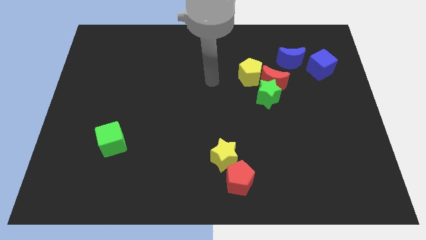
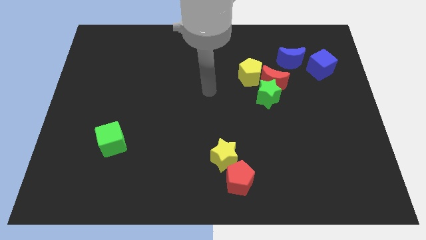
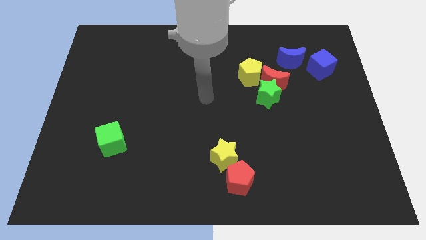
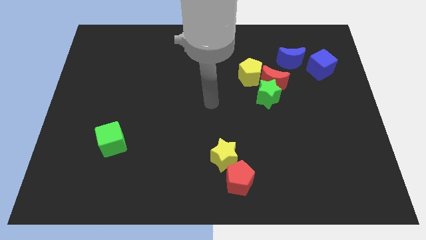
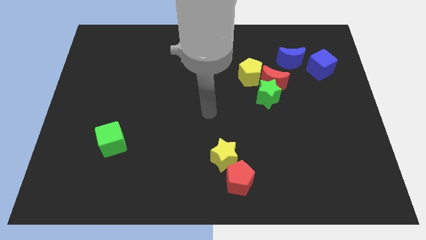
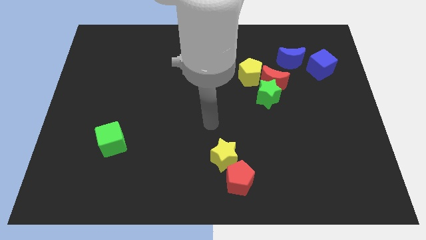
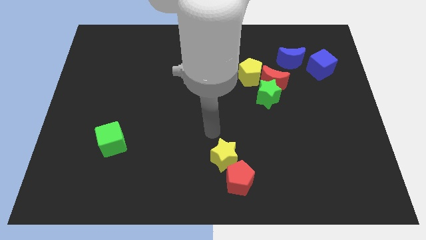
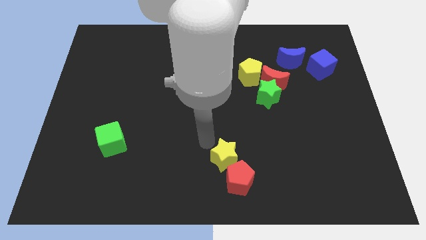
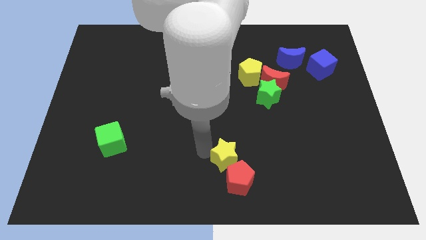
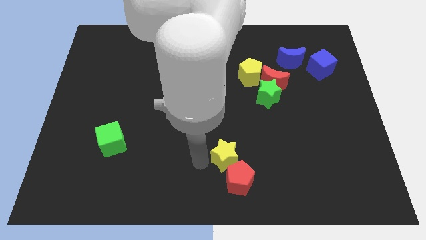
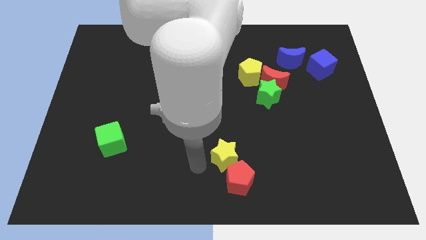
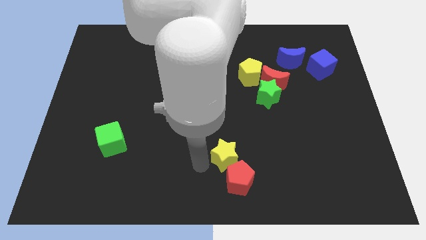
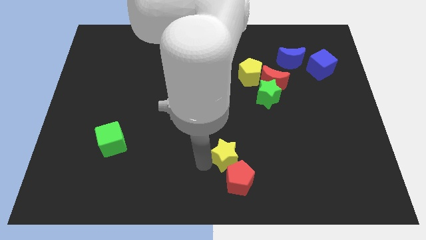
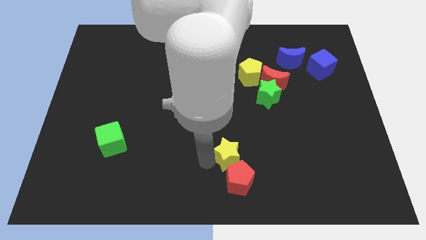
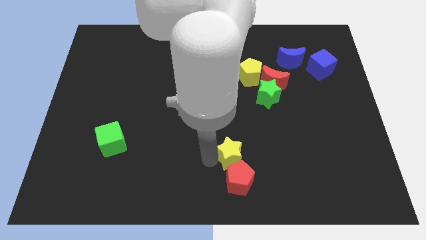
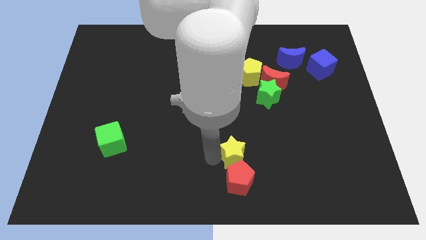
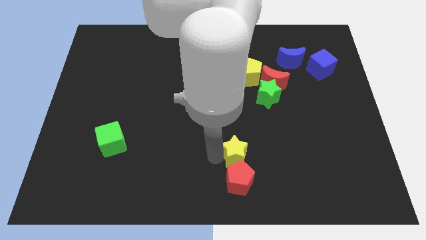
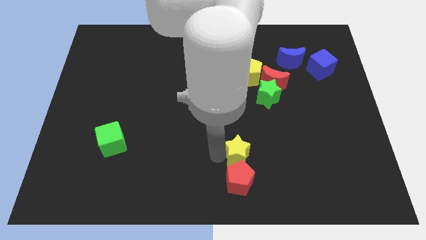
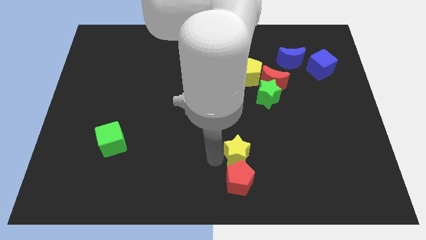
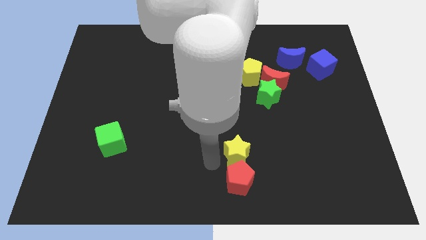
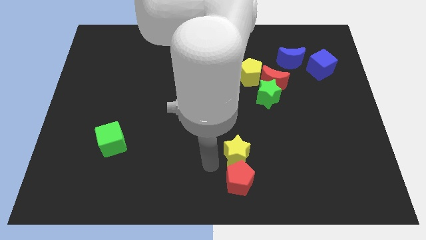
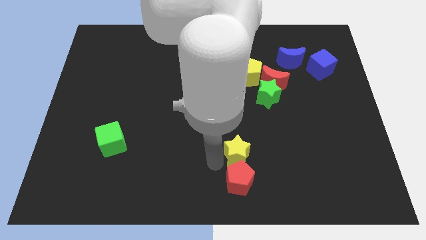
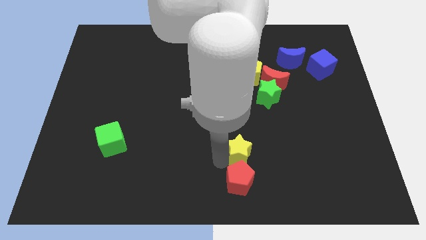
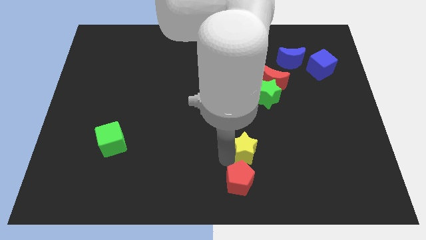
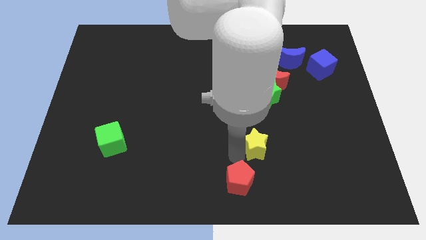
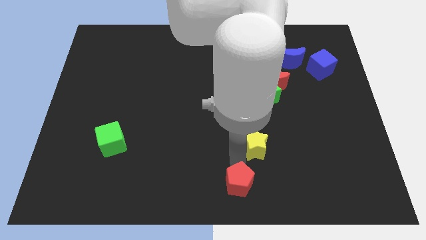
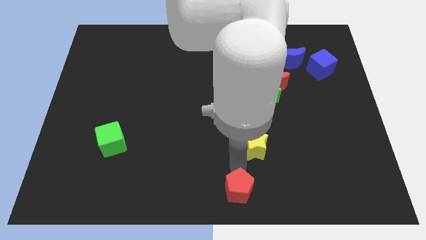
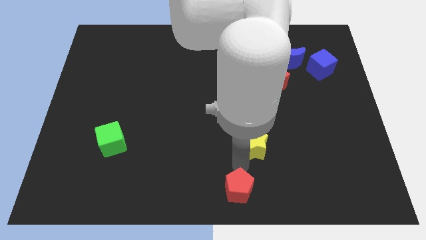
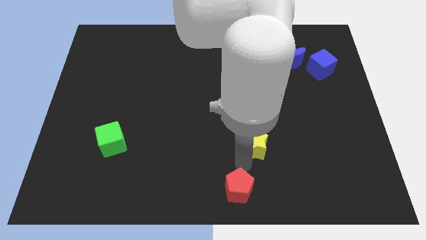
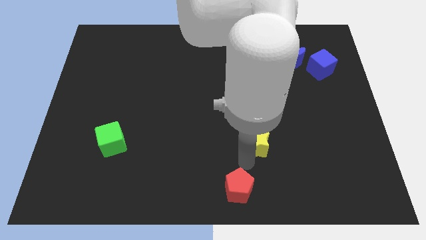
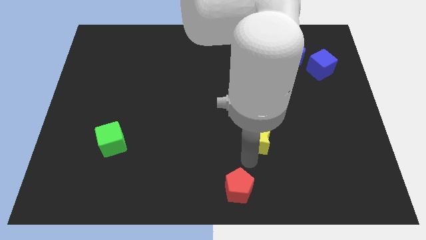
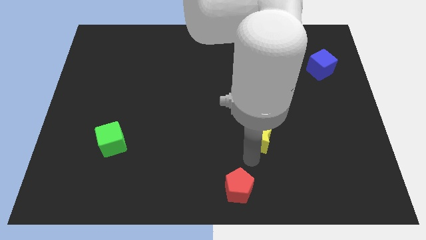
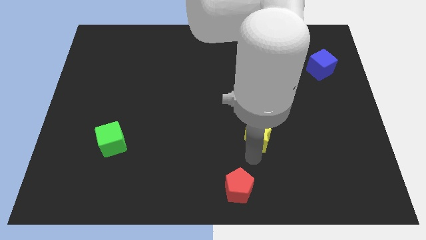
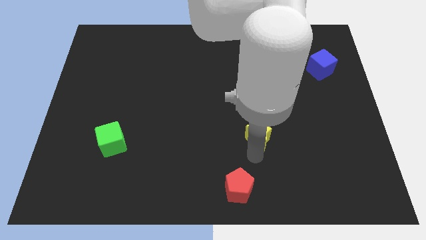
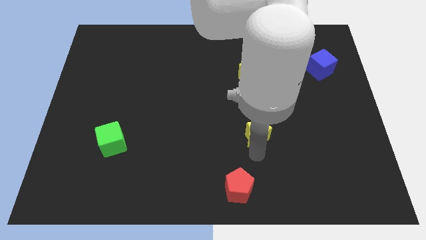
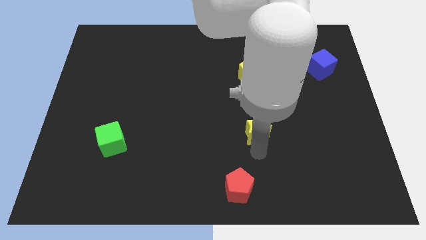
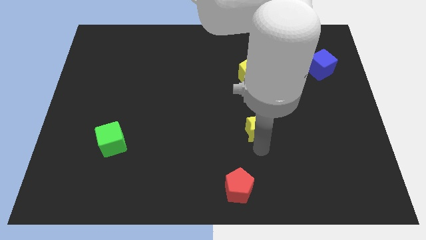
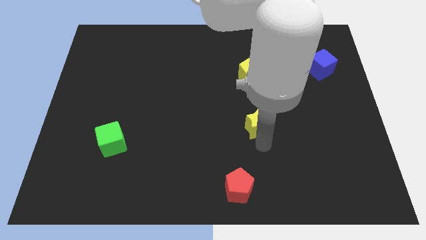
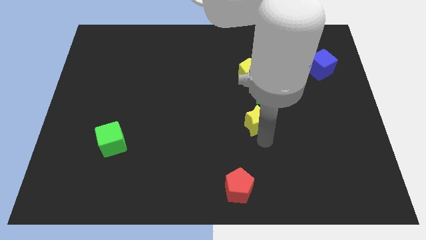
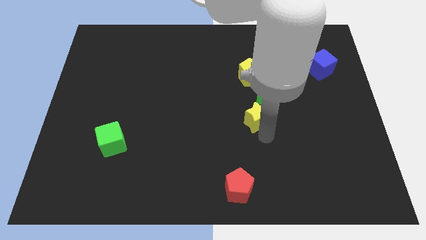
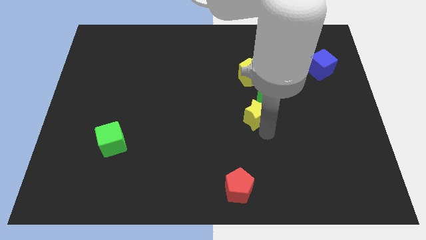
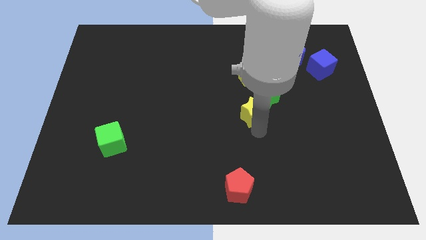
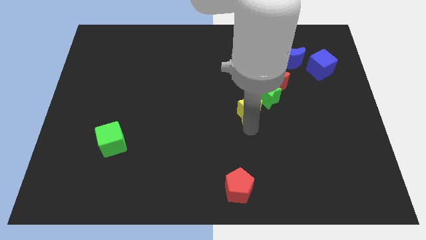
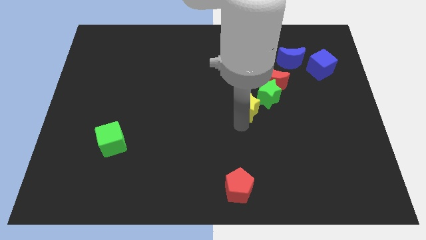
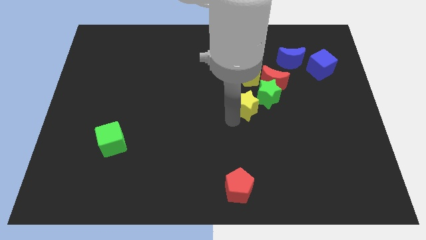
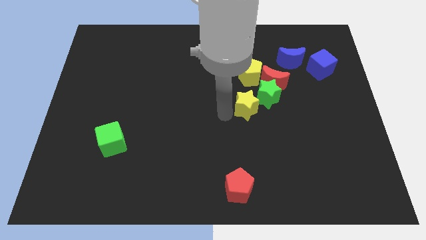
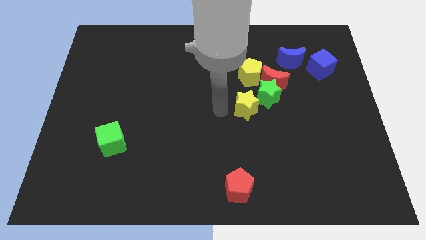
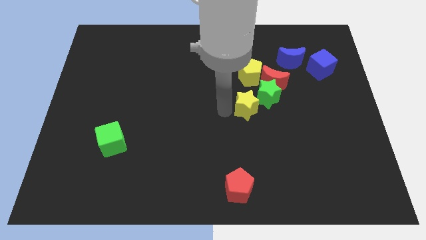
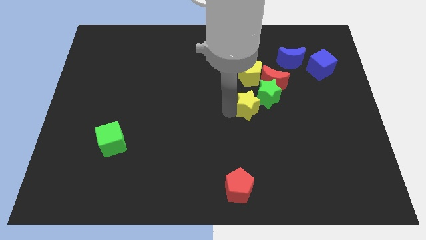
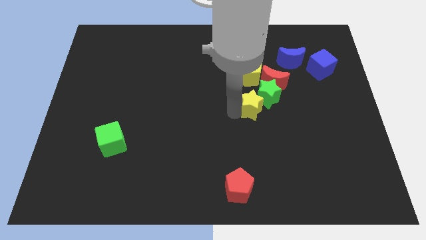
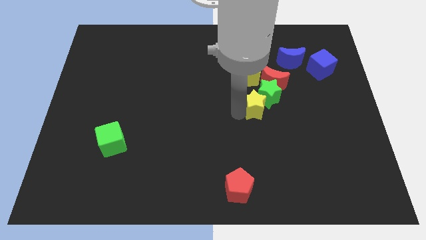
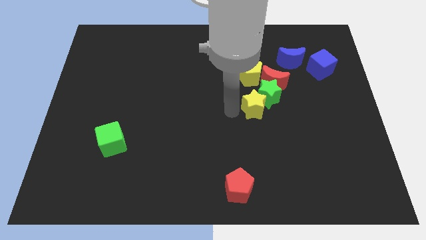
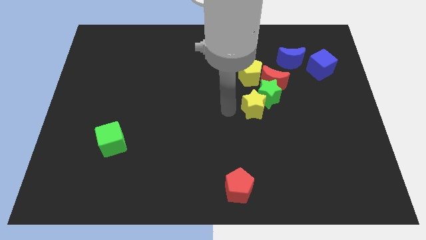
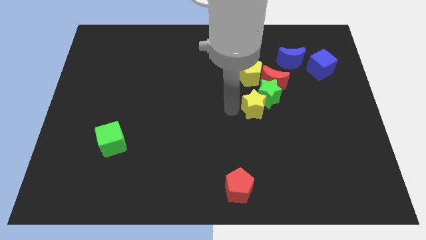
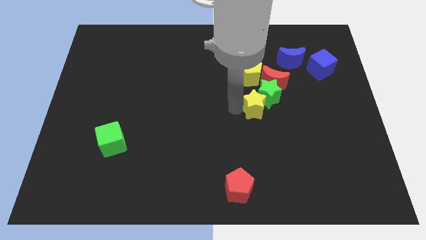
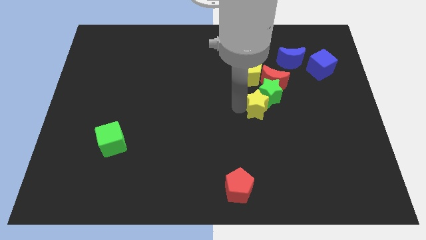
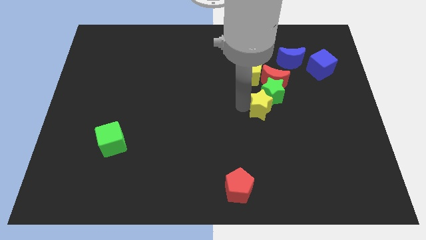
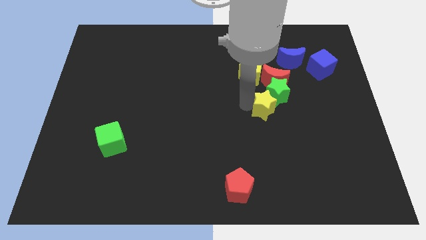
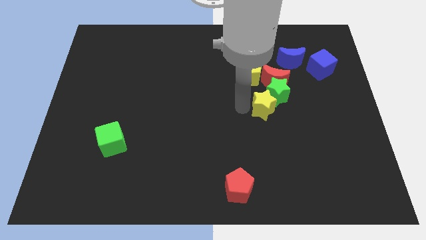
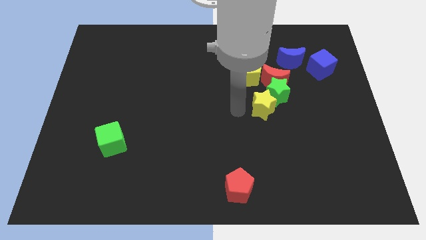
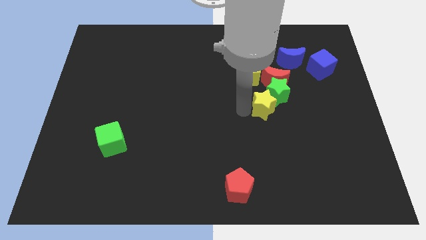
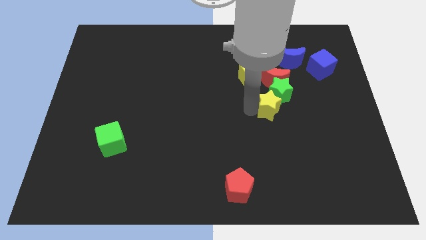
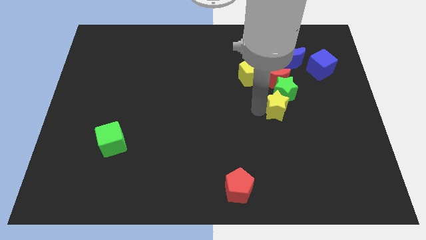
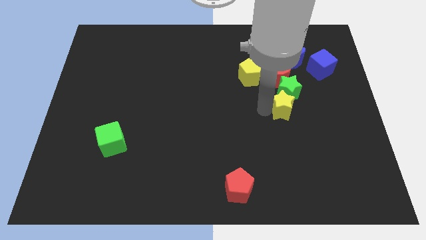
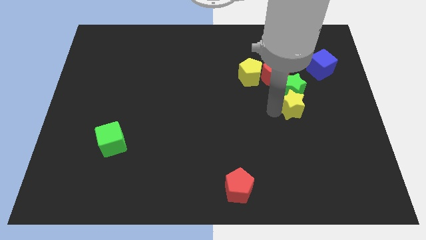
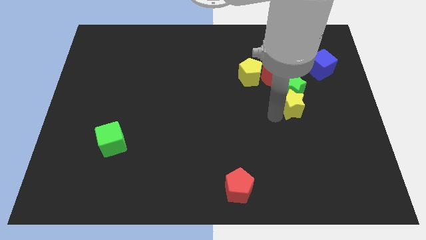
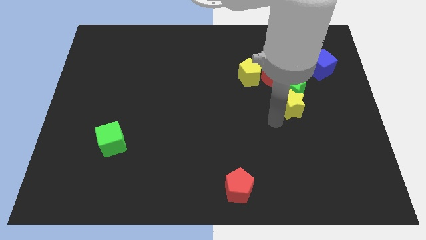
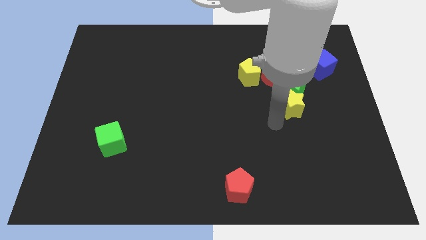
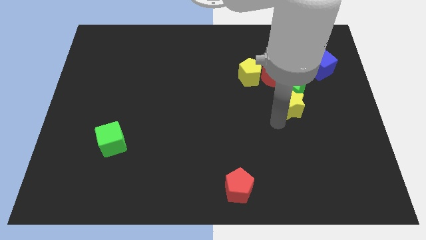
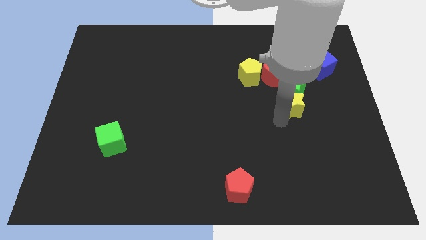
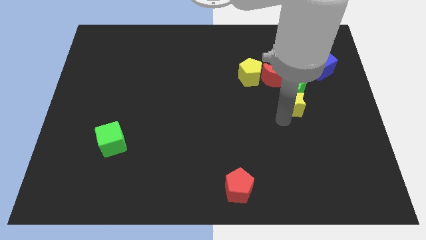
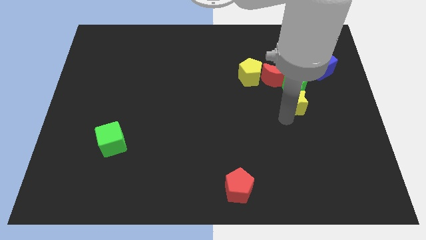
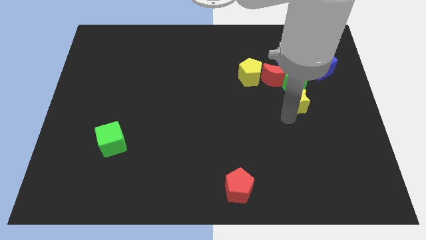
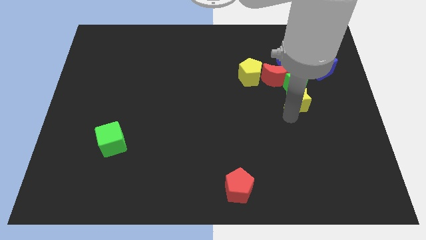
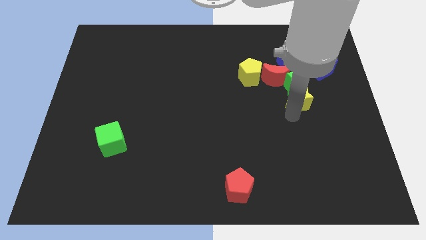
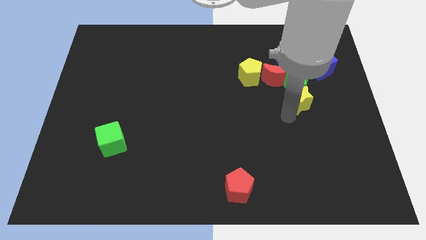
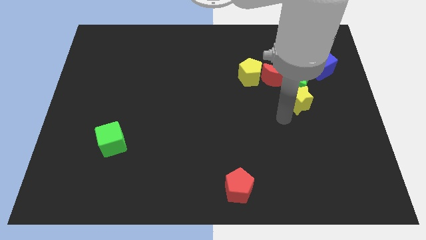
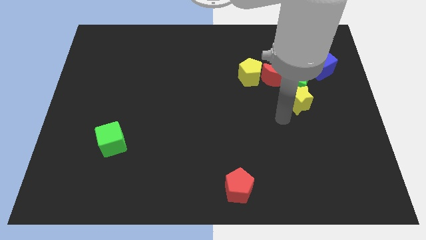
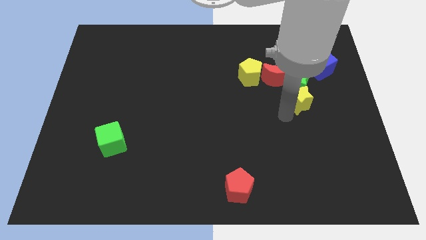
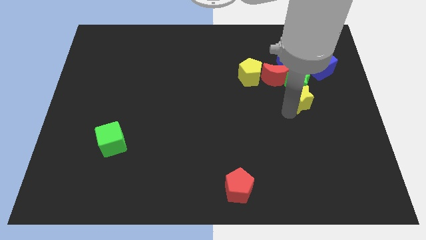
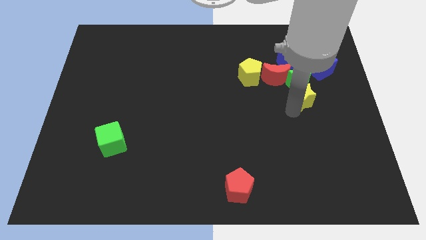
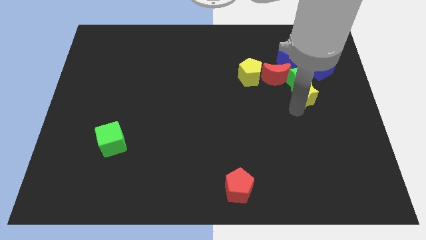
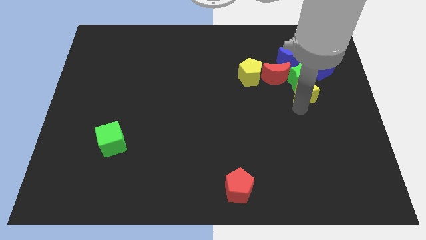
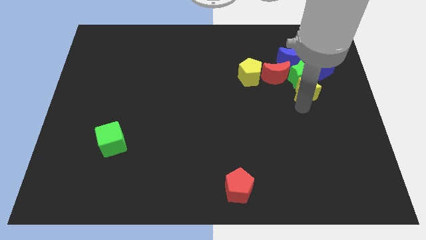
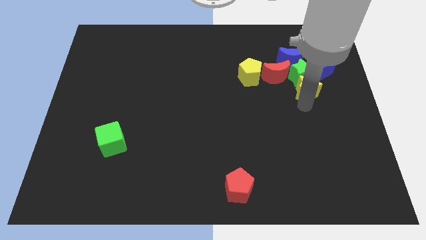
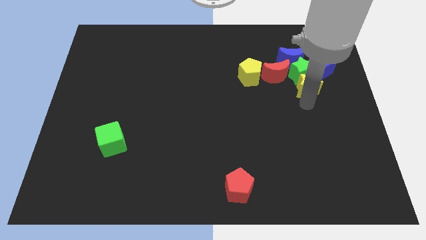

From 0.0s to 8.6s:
put the yellow star diagonally down and to the right of the blue moon
